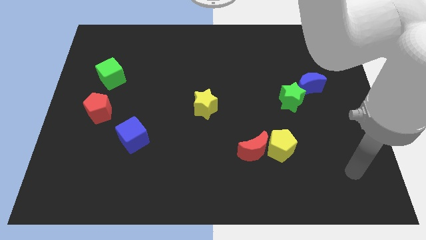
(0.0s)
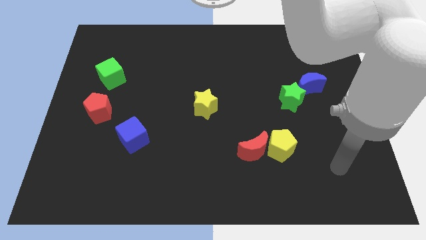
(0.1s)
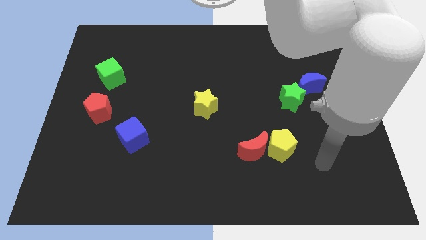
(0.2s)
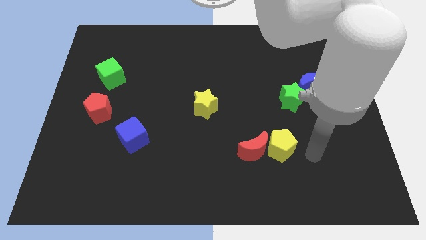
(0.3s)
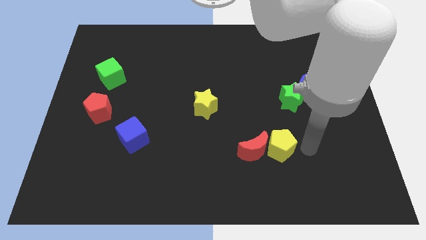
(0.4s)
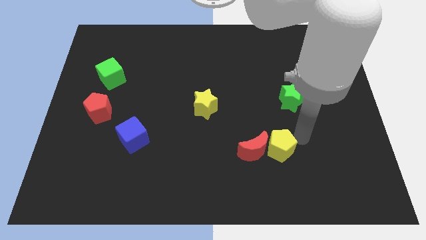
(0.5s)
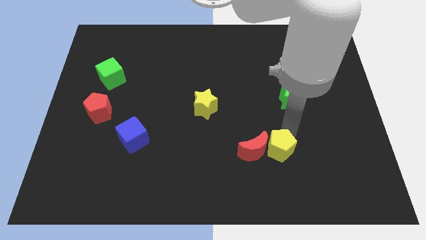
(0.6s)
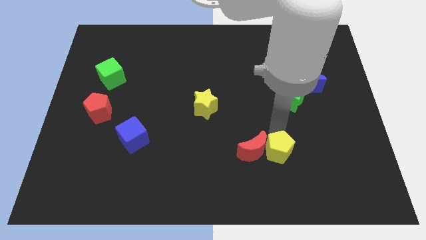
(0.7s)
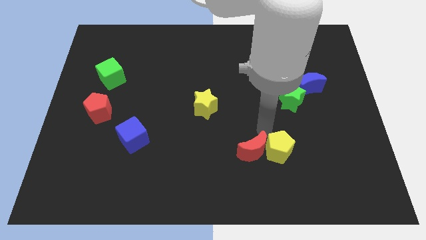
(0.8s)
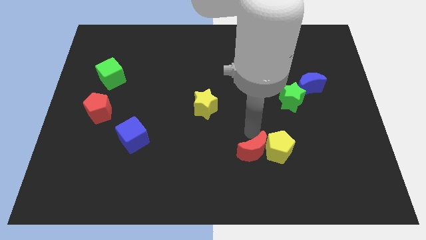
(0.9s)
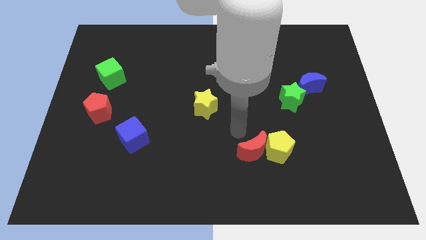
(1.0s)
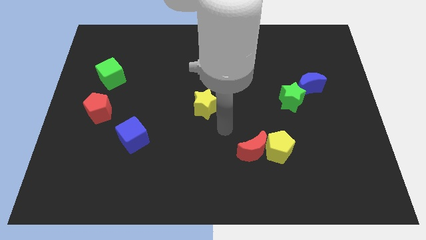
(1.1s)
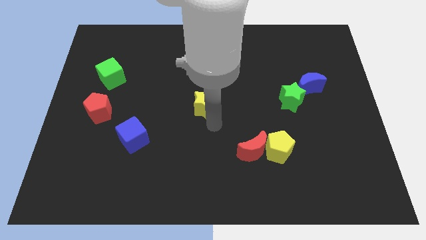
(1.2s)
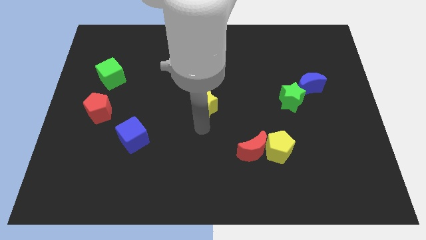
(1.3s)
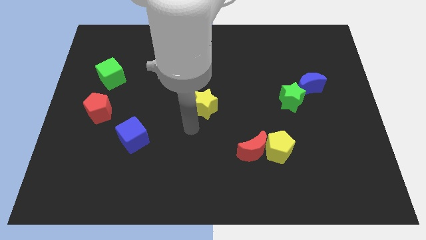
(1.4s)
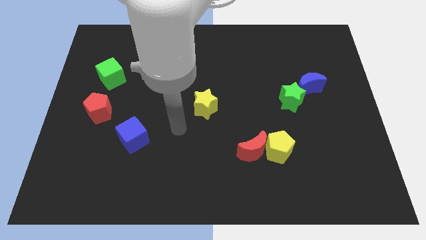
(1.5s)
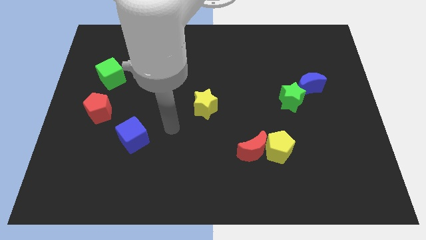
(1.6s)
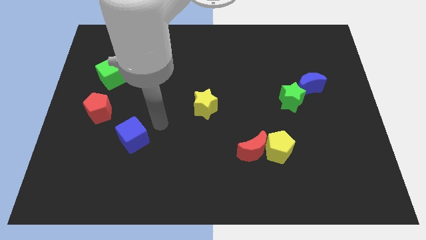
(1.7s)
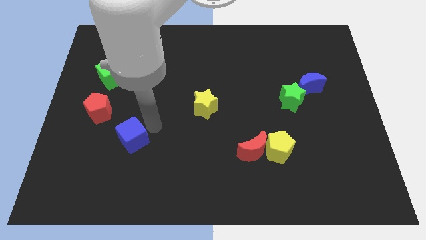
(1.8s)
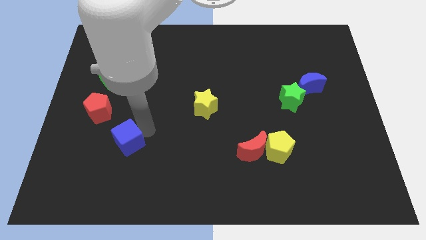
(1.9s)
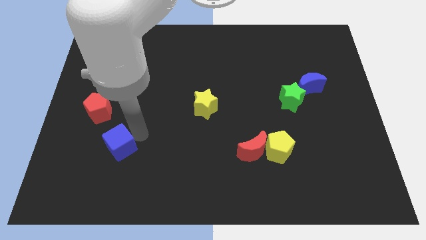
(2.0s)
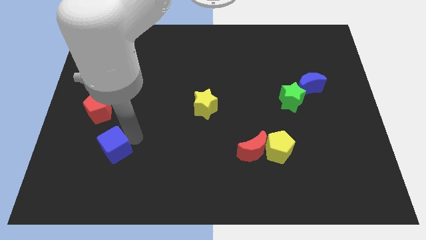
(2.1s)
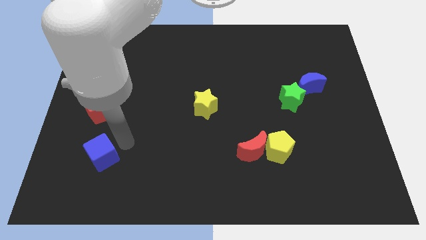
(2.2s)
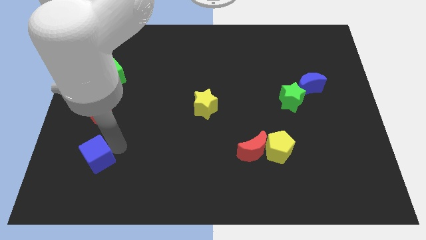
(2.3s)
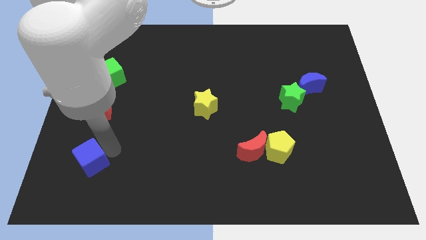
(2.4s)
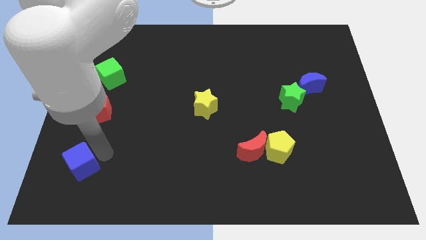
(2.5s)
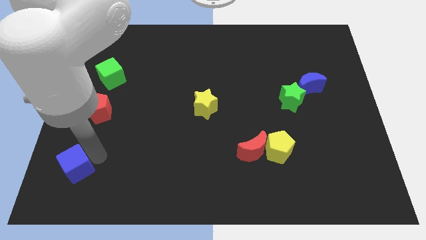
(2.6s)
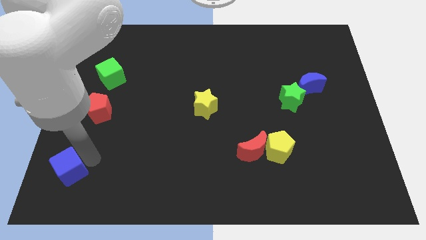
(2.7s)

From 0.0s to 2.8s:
slide the blue cube to the lower left corner

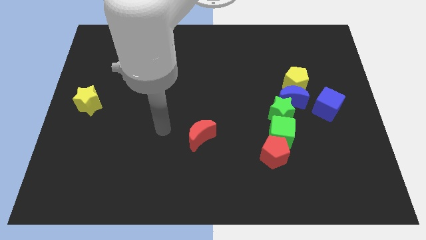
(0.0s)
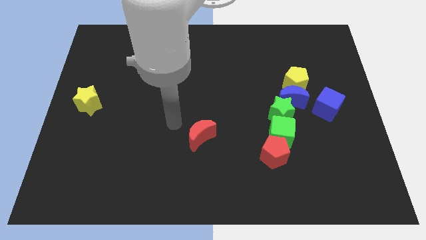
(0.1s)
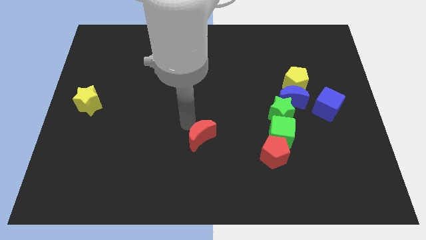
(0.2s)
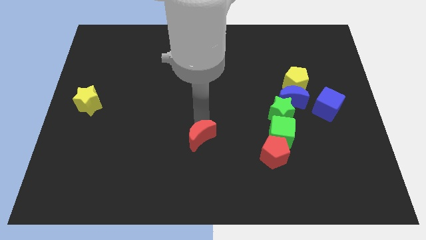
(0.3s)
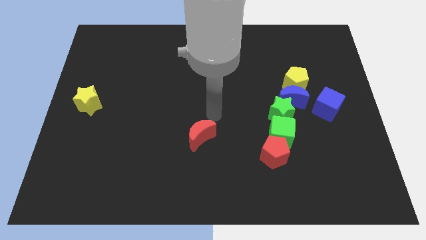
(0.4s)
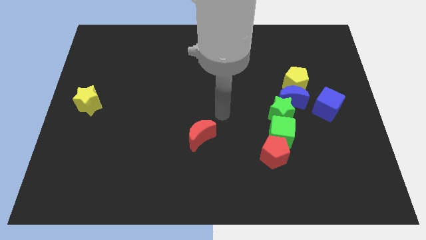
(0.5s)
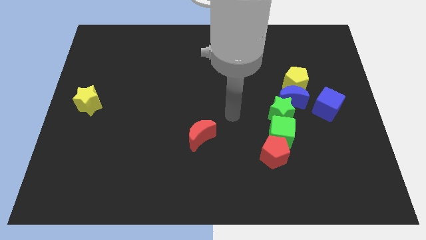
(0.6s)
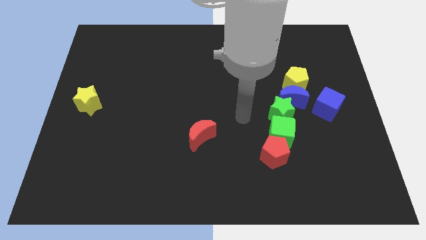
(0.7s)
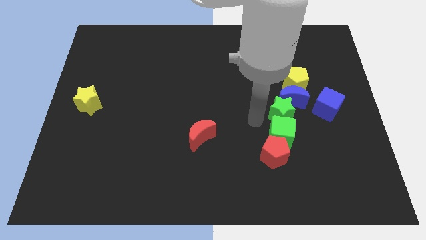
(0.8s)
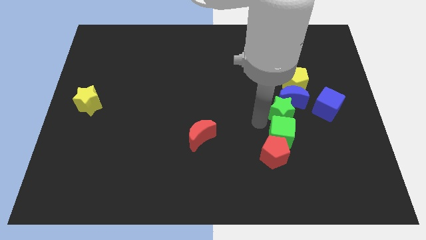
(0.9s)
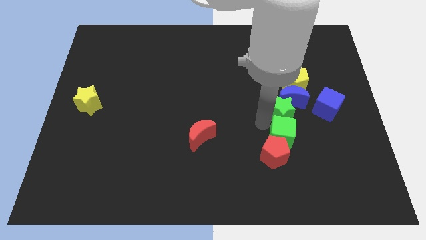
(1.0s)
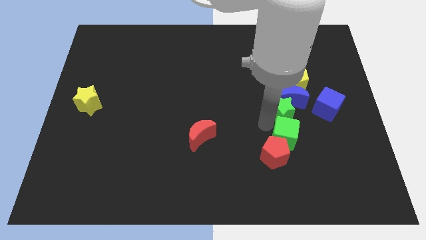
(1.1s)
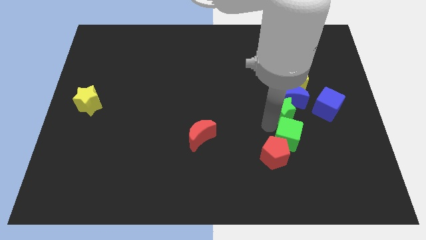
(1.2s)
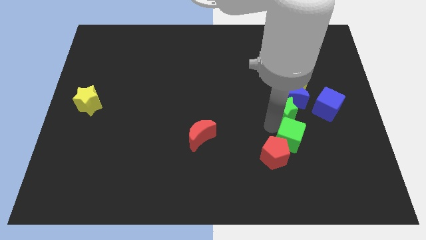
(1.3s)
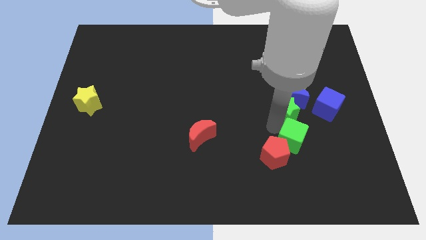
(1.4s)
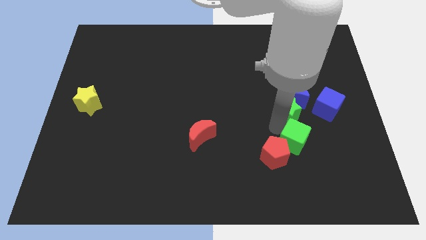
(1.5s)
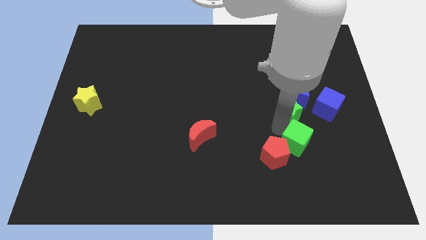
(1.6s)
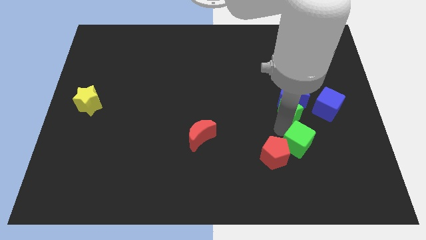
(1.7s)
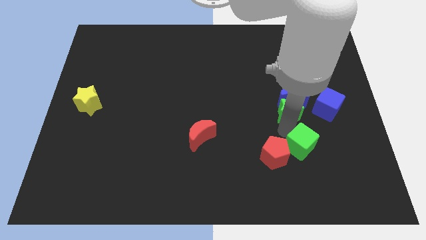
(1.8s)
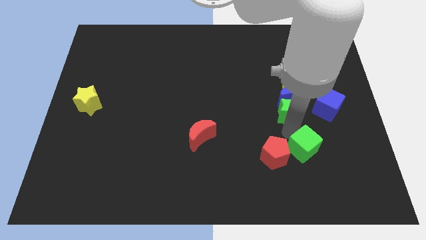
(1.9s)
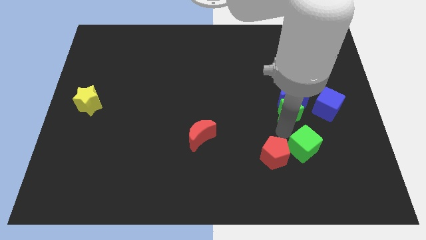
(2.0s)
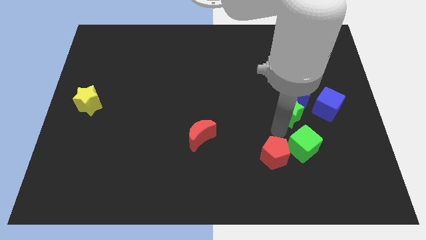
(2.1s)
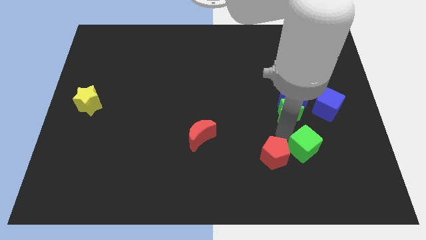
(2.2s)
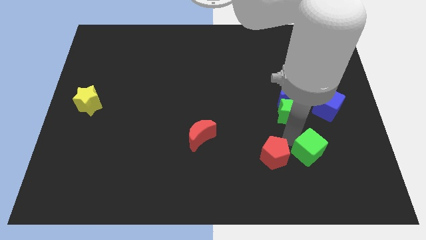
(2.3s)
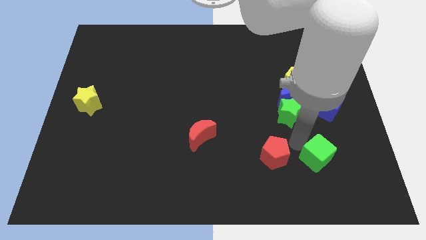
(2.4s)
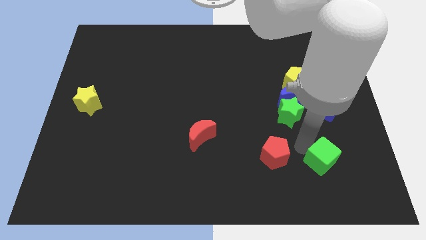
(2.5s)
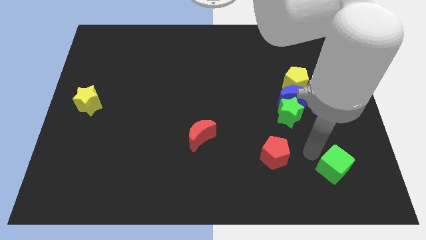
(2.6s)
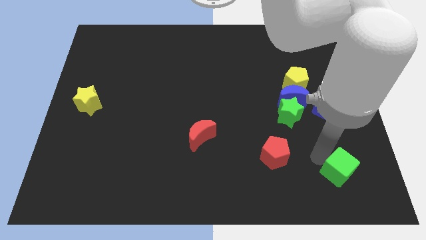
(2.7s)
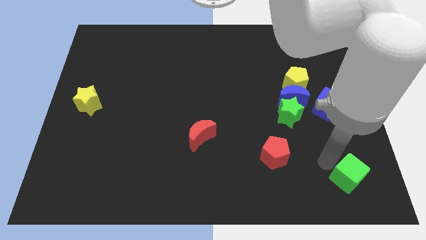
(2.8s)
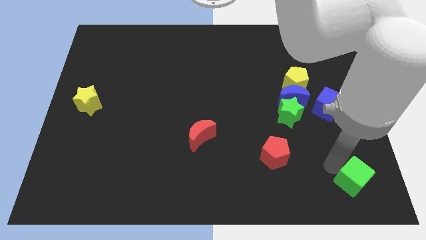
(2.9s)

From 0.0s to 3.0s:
slide the green cube to the bottom right of the board

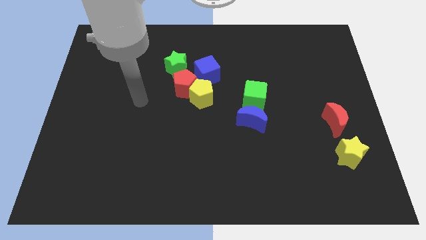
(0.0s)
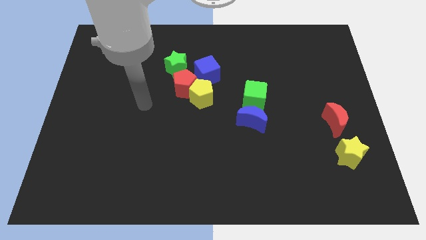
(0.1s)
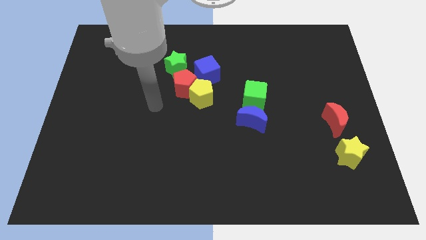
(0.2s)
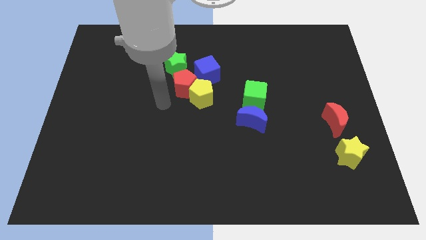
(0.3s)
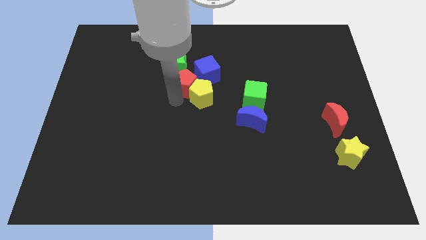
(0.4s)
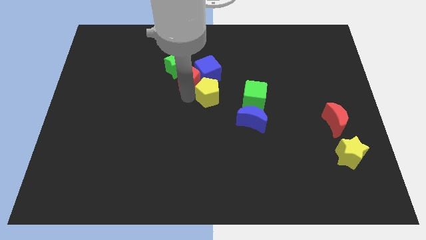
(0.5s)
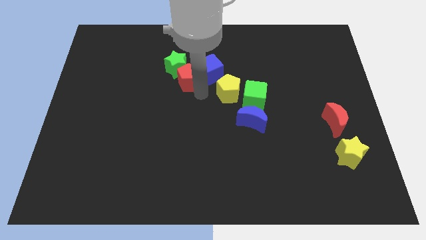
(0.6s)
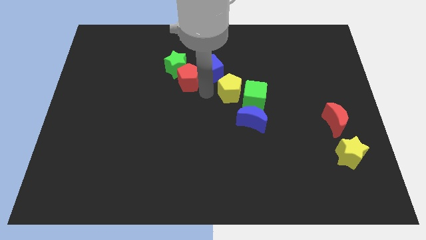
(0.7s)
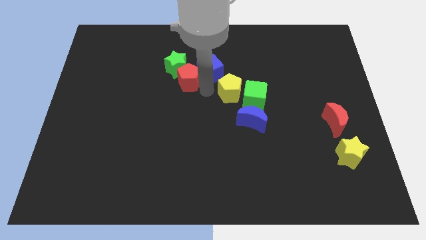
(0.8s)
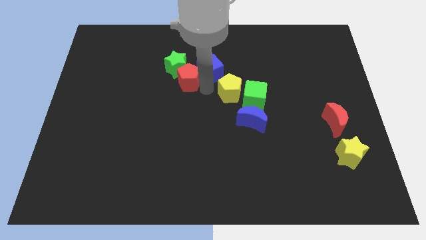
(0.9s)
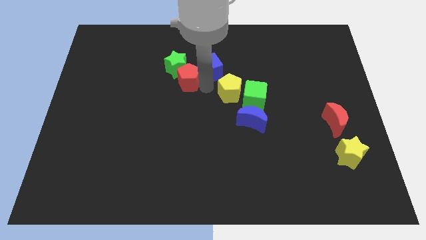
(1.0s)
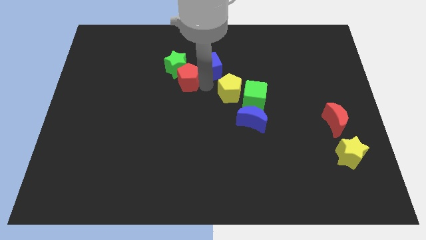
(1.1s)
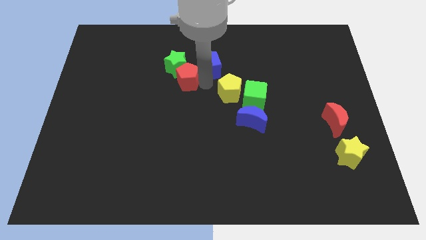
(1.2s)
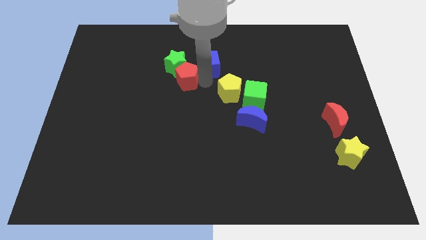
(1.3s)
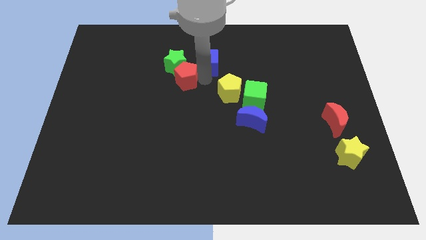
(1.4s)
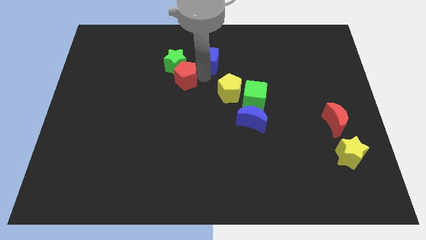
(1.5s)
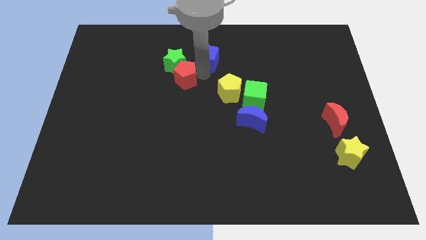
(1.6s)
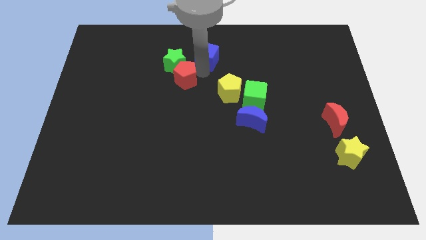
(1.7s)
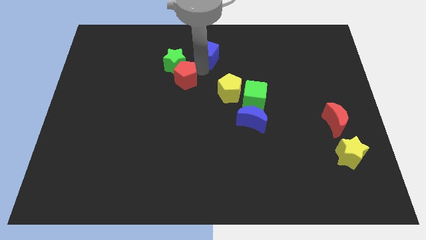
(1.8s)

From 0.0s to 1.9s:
push the blue cube to the towards your base

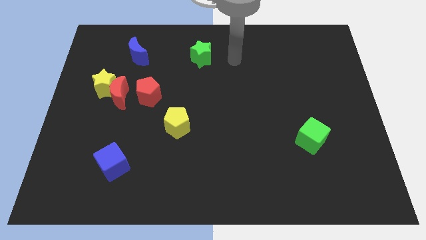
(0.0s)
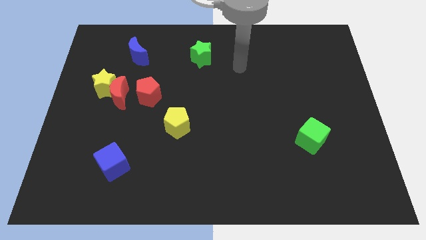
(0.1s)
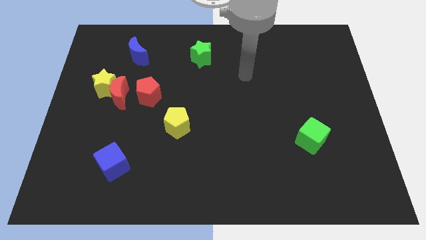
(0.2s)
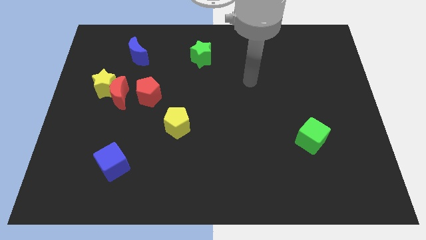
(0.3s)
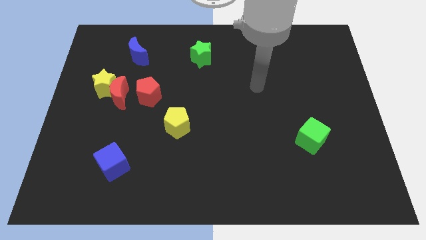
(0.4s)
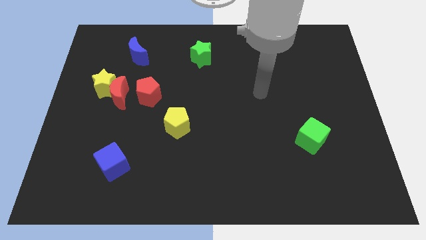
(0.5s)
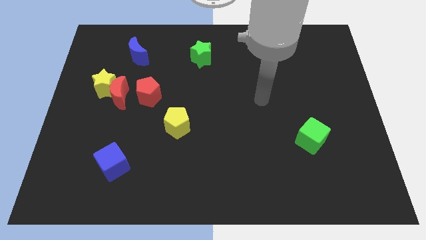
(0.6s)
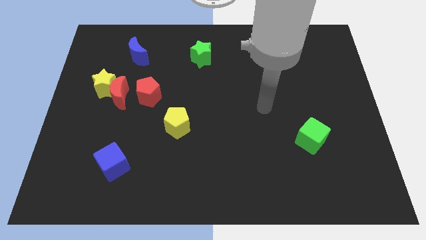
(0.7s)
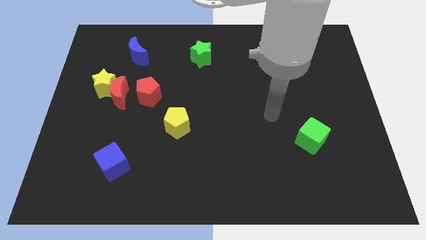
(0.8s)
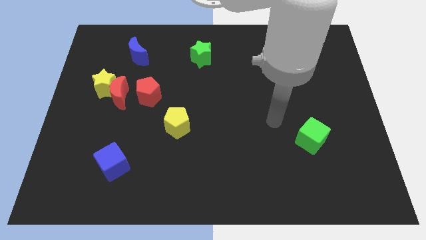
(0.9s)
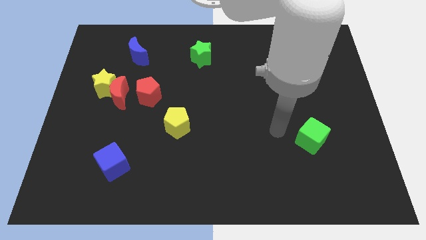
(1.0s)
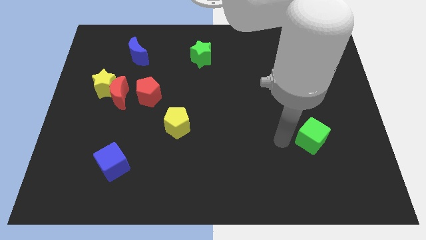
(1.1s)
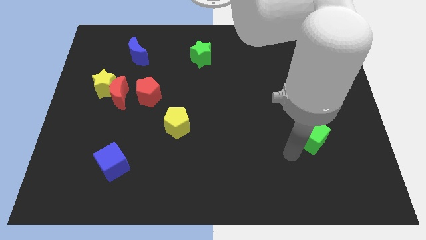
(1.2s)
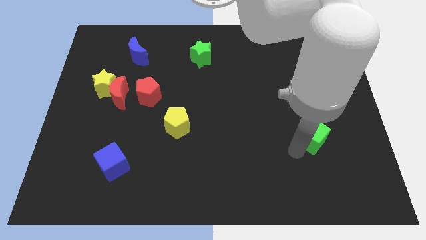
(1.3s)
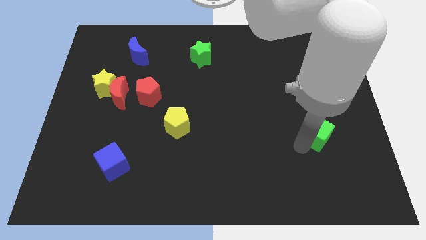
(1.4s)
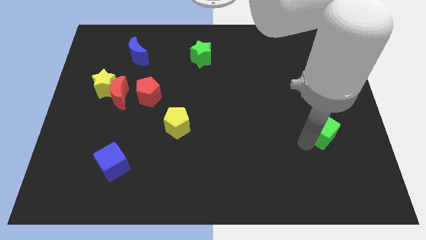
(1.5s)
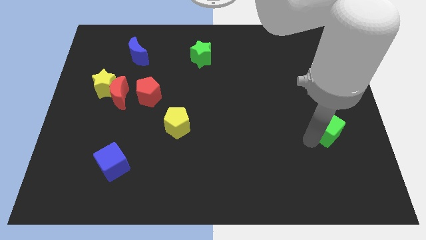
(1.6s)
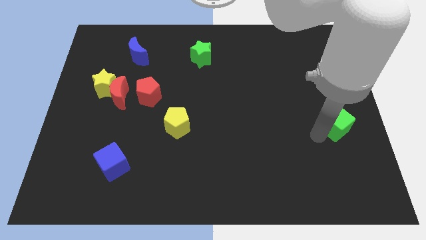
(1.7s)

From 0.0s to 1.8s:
push the green cube to the center right
